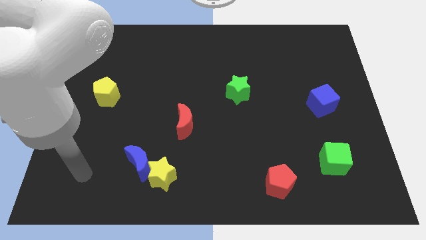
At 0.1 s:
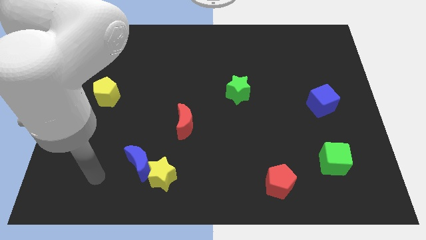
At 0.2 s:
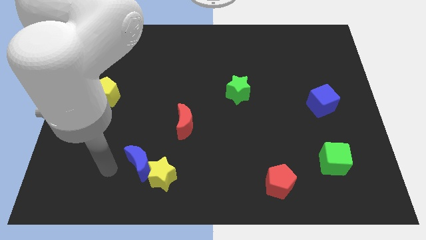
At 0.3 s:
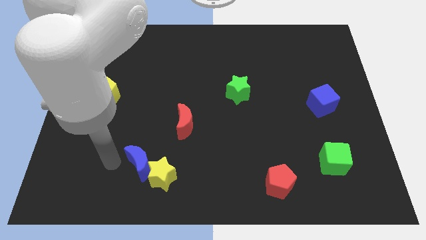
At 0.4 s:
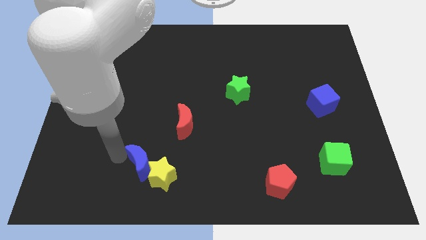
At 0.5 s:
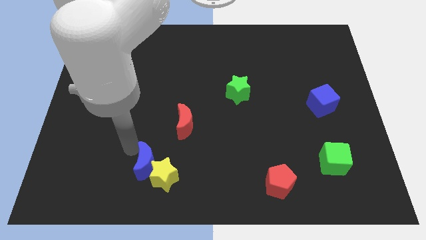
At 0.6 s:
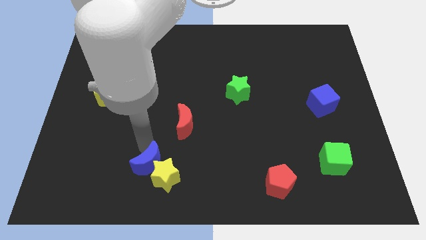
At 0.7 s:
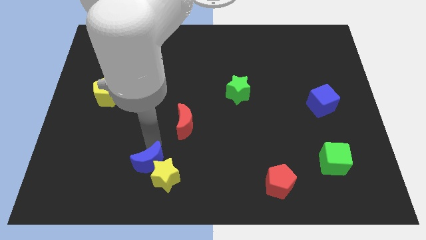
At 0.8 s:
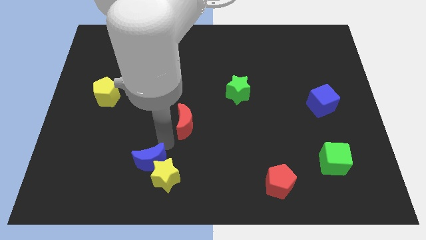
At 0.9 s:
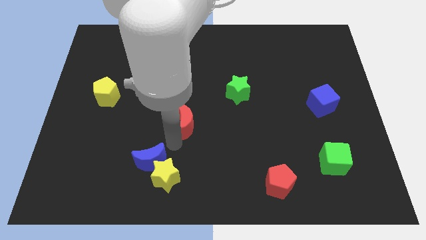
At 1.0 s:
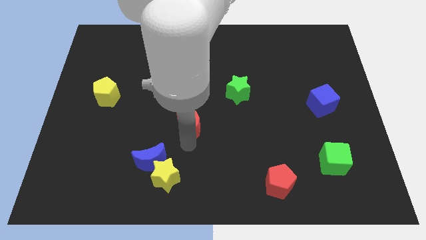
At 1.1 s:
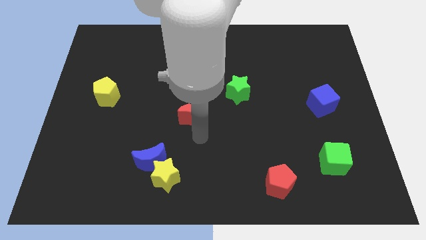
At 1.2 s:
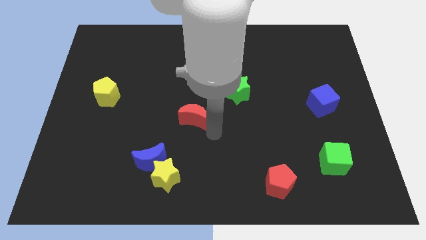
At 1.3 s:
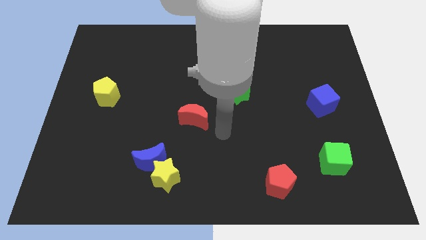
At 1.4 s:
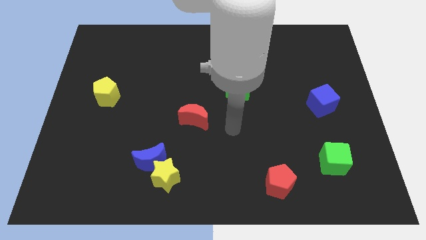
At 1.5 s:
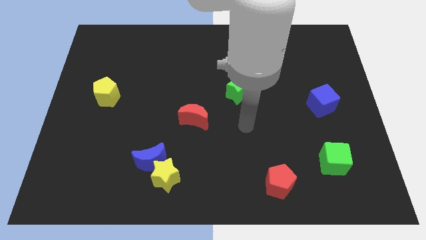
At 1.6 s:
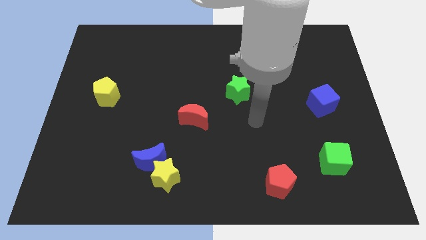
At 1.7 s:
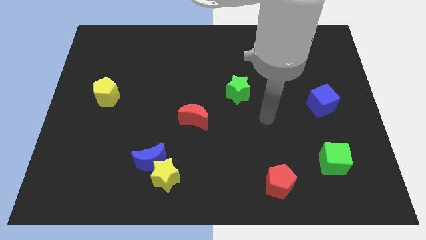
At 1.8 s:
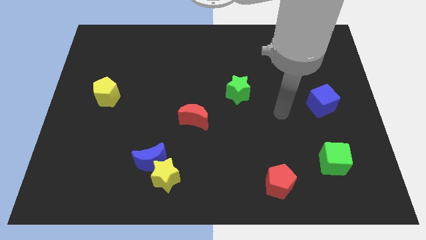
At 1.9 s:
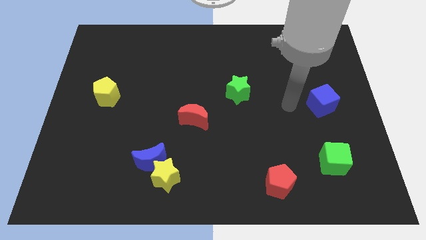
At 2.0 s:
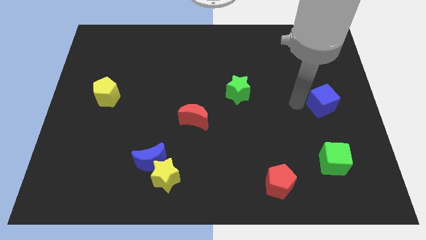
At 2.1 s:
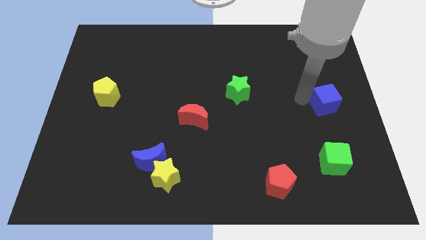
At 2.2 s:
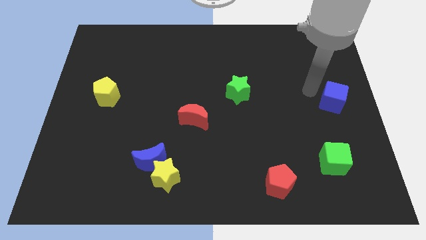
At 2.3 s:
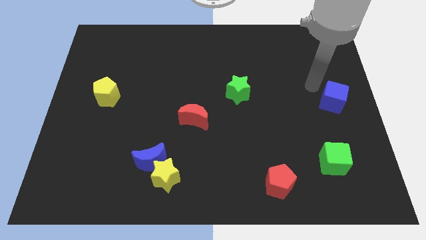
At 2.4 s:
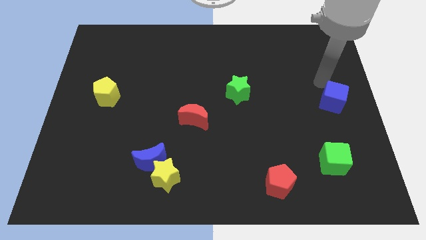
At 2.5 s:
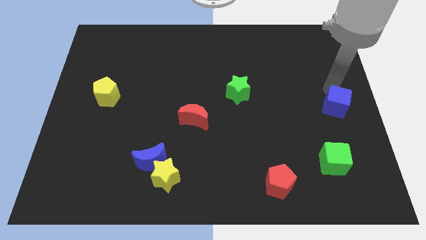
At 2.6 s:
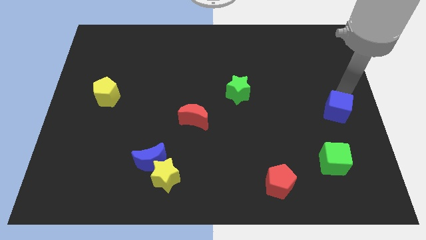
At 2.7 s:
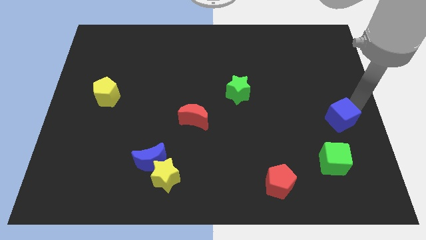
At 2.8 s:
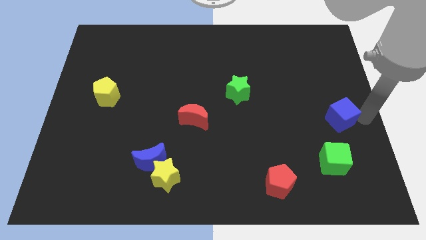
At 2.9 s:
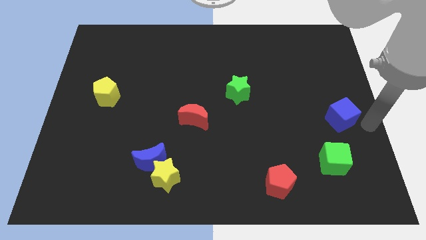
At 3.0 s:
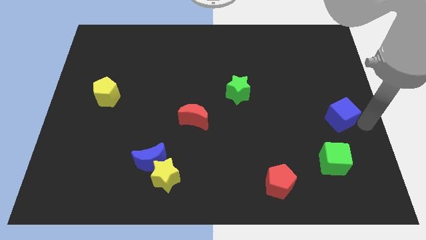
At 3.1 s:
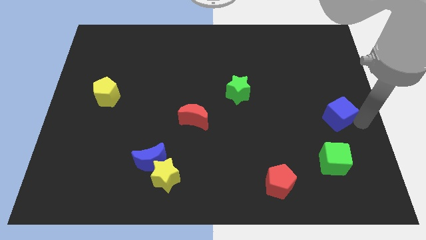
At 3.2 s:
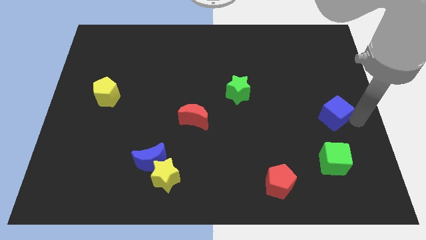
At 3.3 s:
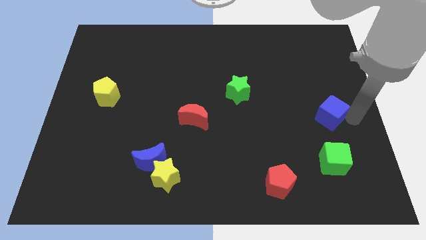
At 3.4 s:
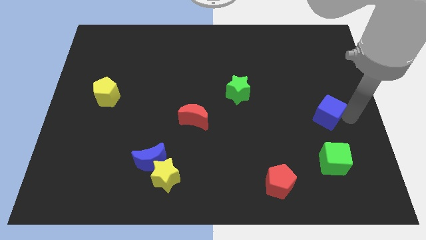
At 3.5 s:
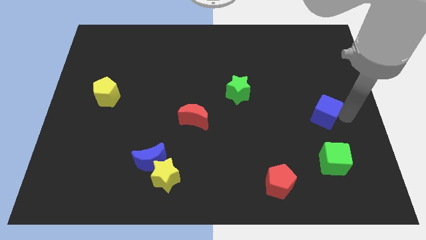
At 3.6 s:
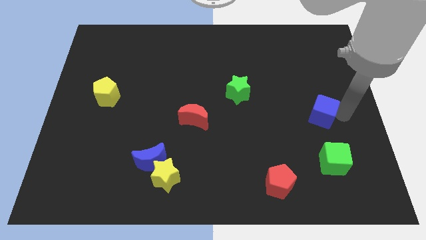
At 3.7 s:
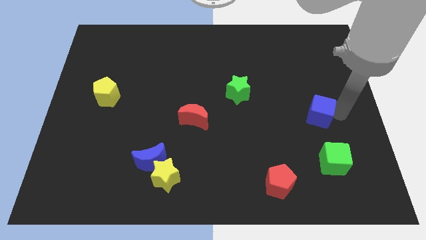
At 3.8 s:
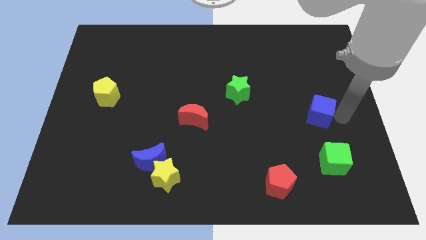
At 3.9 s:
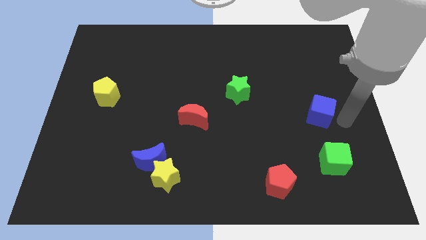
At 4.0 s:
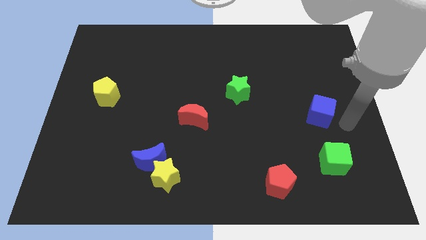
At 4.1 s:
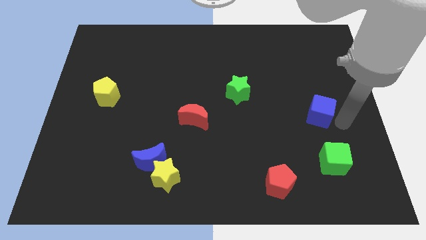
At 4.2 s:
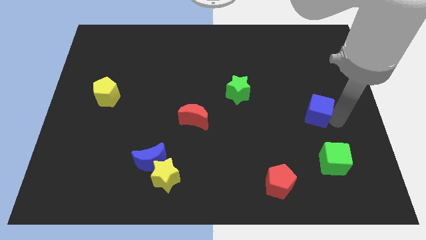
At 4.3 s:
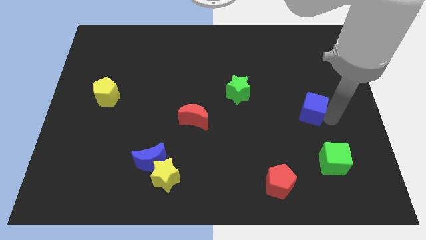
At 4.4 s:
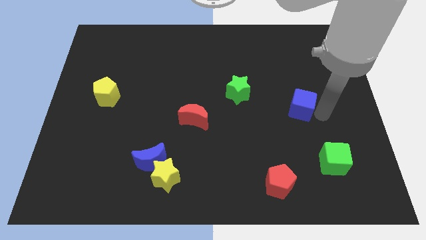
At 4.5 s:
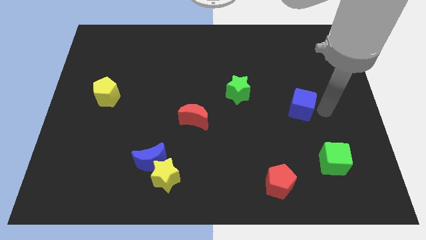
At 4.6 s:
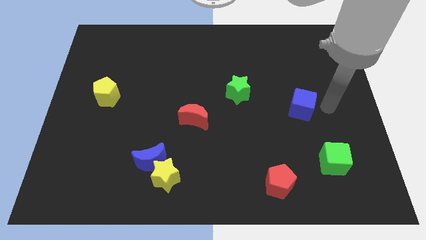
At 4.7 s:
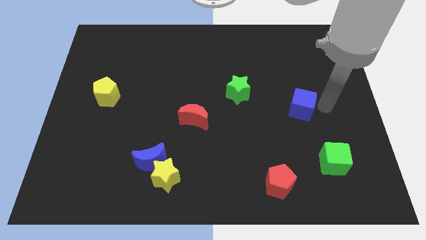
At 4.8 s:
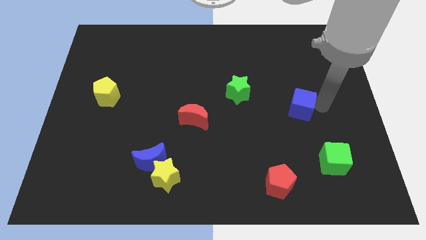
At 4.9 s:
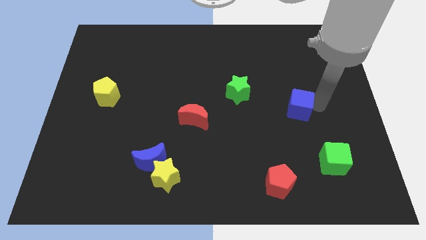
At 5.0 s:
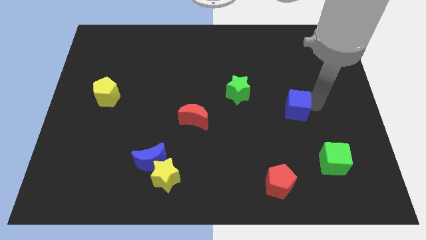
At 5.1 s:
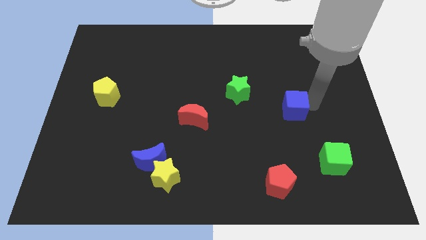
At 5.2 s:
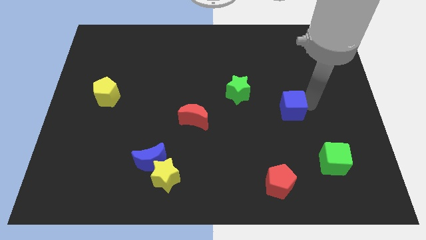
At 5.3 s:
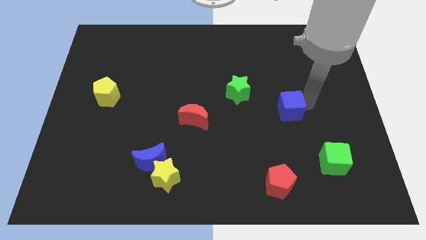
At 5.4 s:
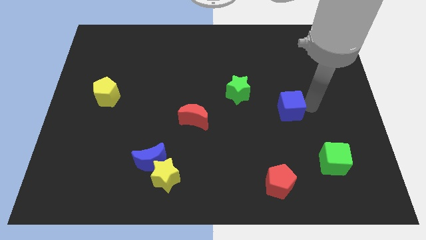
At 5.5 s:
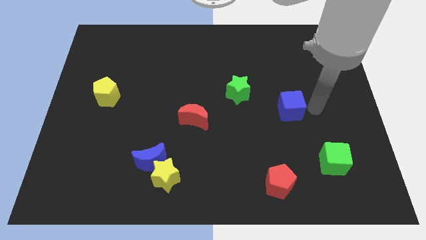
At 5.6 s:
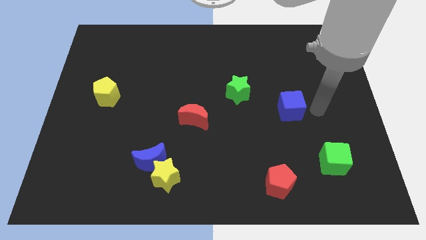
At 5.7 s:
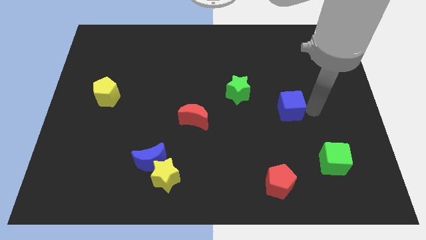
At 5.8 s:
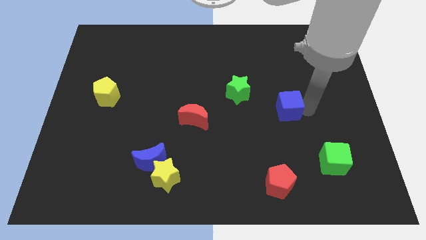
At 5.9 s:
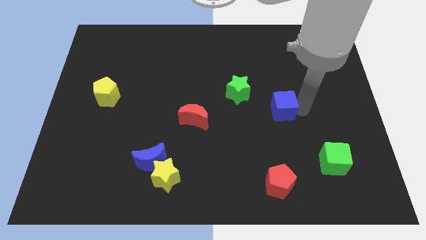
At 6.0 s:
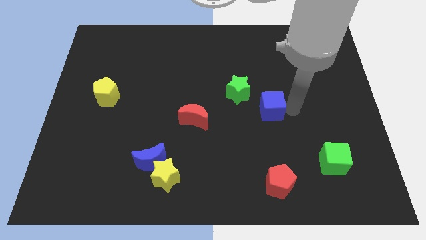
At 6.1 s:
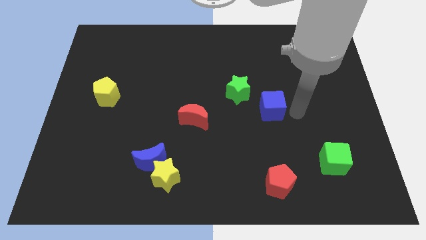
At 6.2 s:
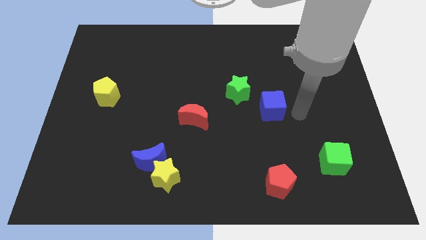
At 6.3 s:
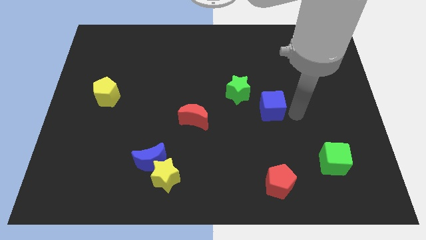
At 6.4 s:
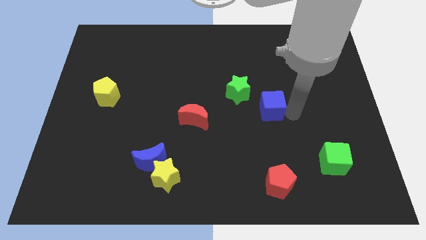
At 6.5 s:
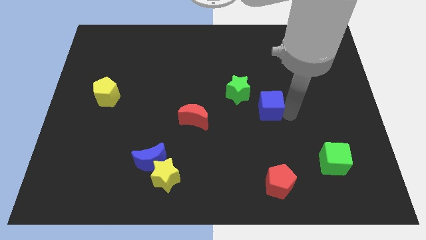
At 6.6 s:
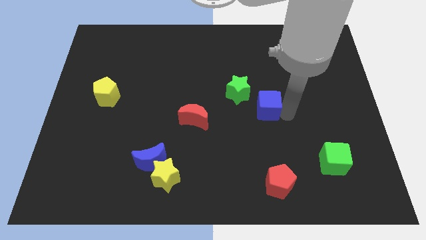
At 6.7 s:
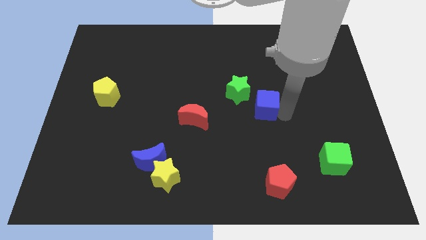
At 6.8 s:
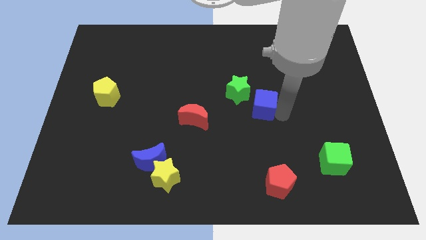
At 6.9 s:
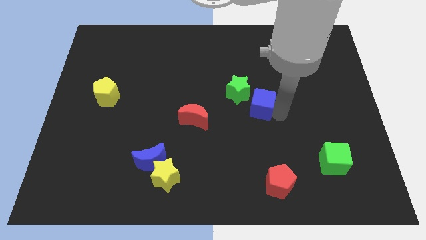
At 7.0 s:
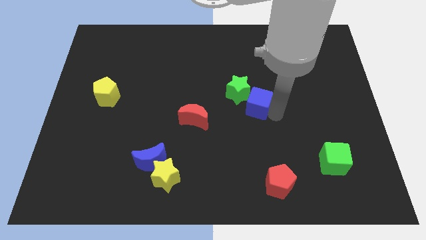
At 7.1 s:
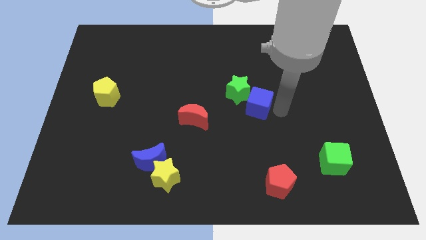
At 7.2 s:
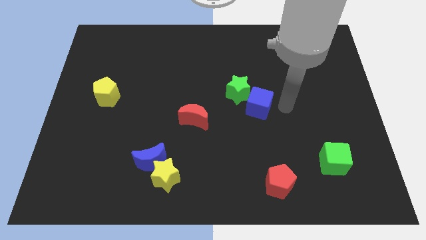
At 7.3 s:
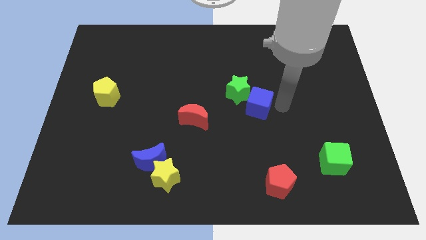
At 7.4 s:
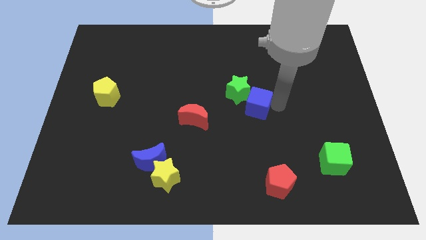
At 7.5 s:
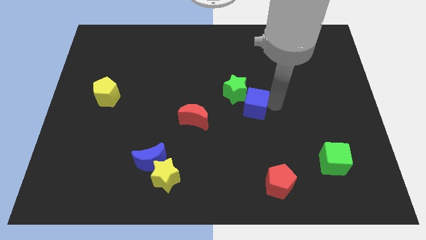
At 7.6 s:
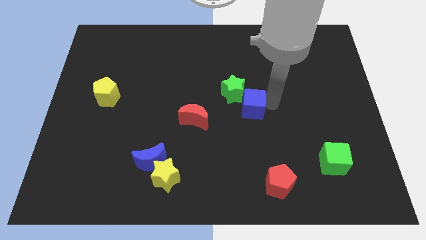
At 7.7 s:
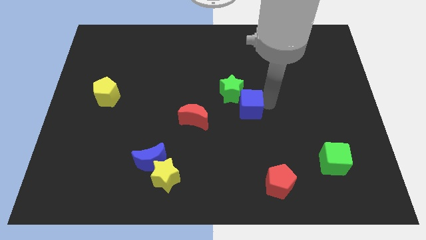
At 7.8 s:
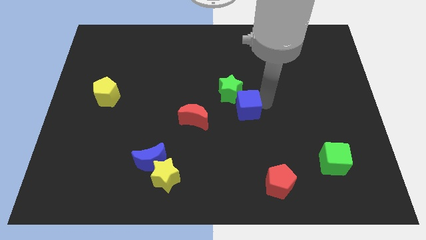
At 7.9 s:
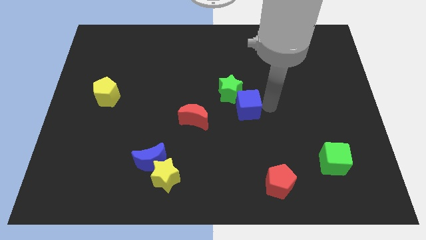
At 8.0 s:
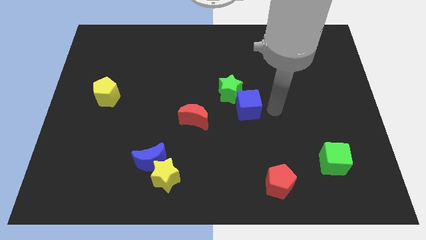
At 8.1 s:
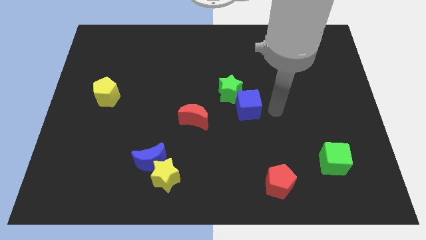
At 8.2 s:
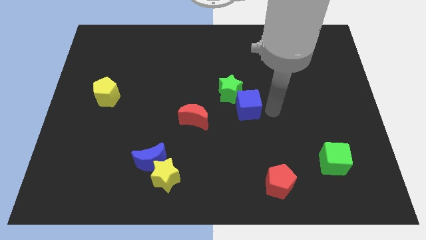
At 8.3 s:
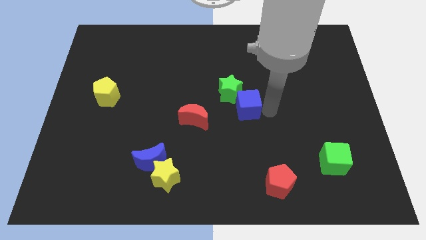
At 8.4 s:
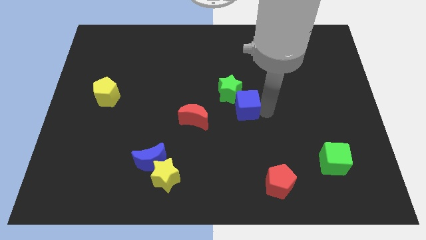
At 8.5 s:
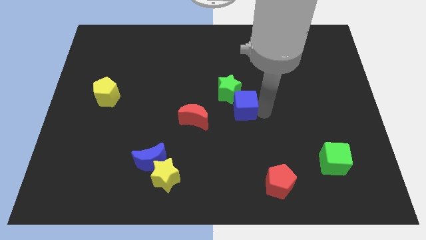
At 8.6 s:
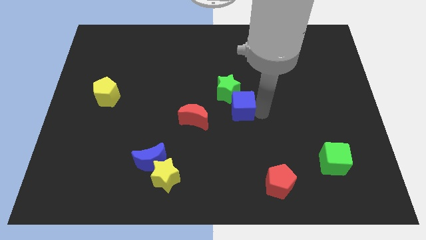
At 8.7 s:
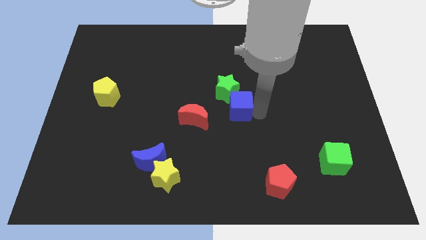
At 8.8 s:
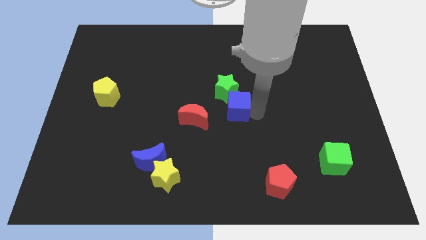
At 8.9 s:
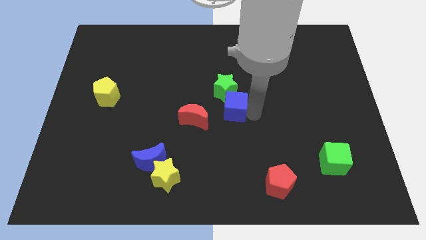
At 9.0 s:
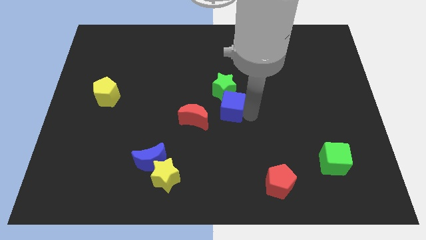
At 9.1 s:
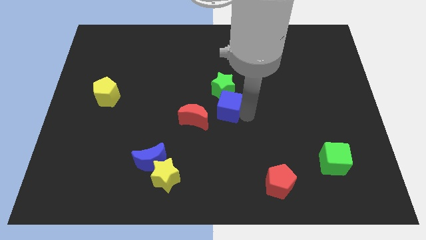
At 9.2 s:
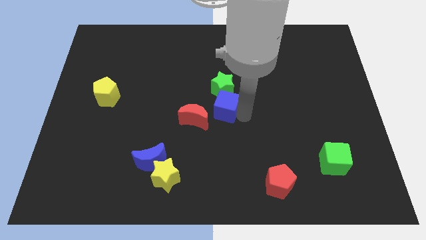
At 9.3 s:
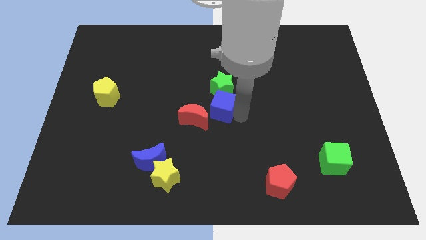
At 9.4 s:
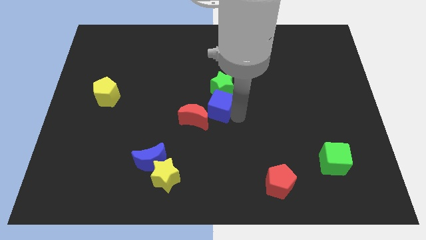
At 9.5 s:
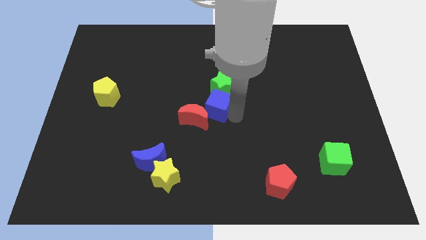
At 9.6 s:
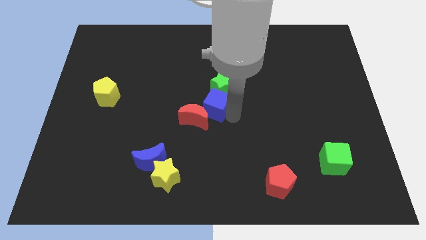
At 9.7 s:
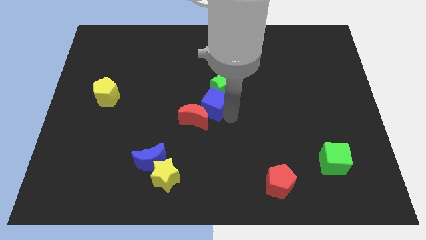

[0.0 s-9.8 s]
move the blue cube to the top of the red moon
